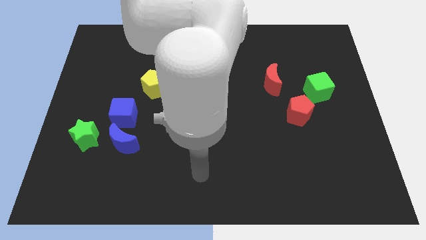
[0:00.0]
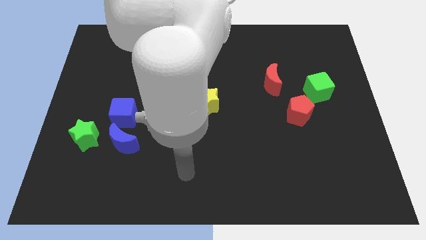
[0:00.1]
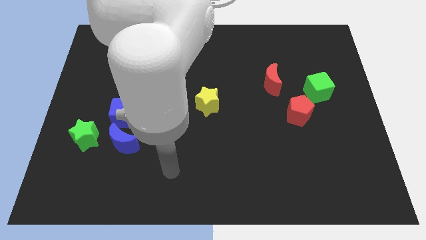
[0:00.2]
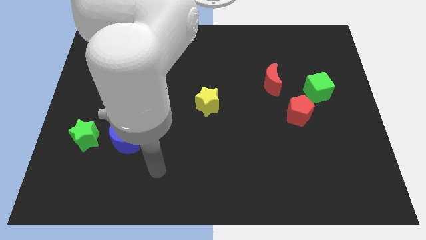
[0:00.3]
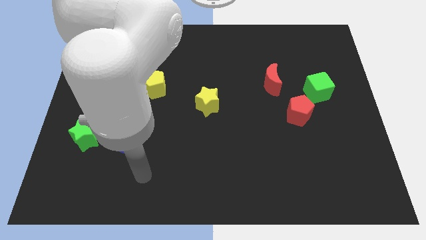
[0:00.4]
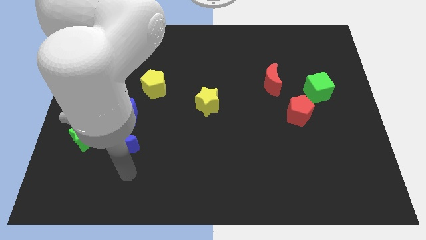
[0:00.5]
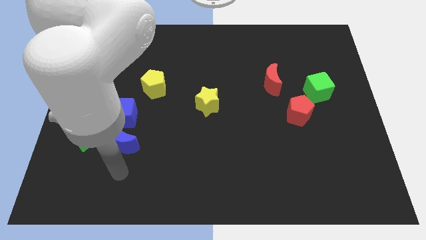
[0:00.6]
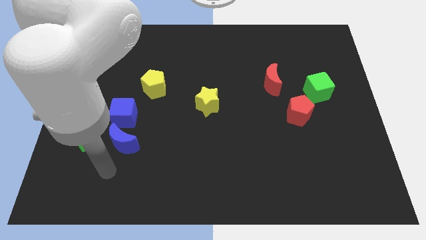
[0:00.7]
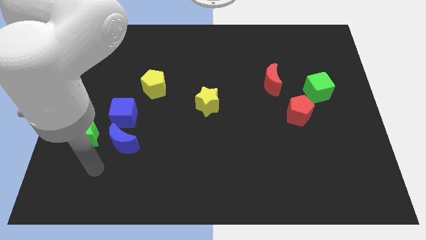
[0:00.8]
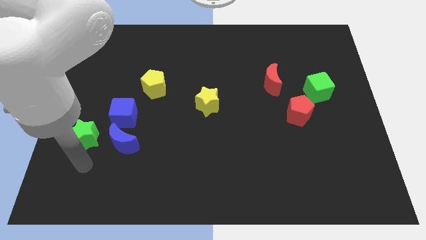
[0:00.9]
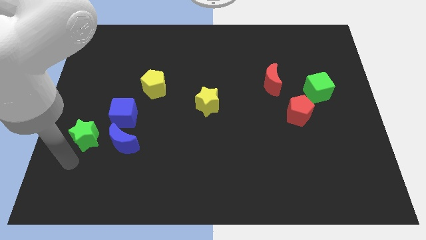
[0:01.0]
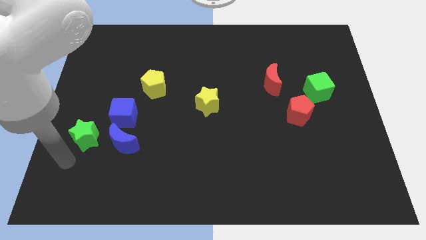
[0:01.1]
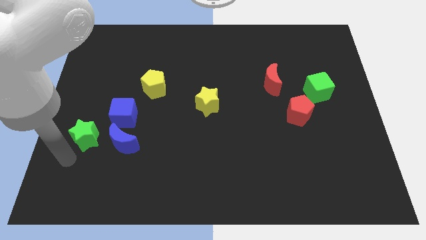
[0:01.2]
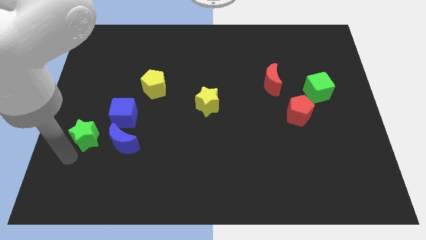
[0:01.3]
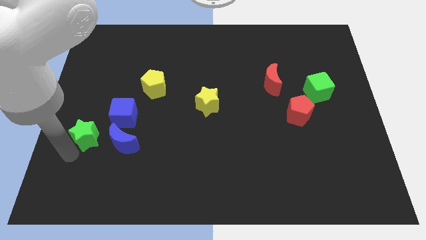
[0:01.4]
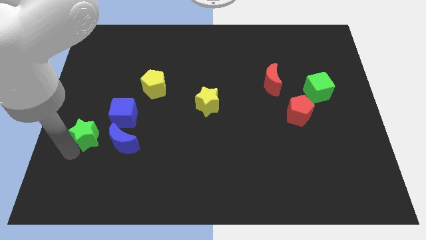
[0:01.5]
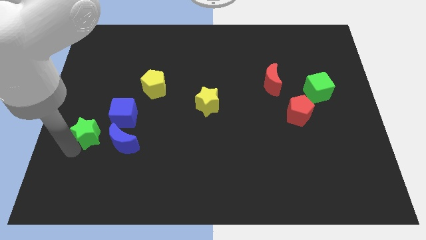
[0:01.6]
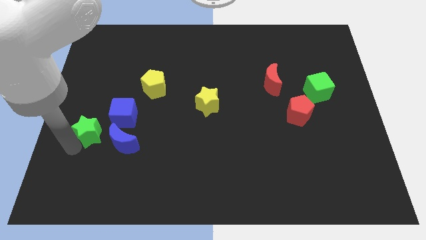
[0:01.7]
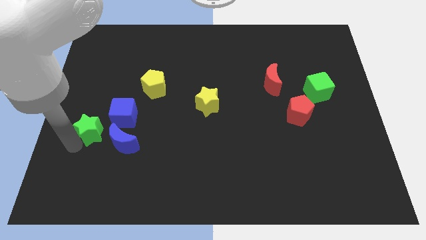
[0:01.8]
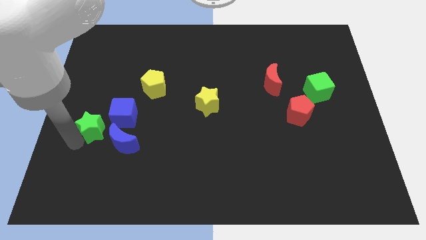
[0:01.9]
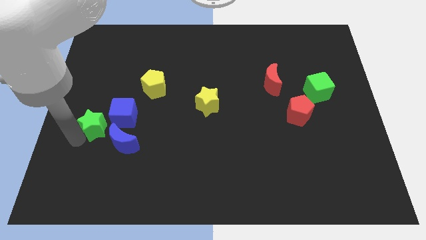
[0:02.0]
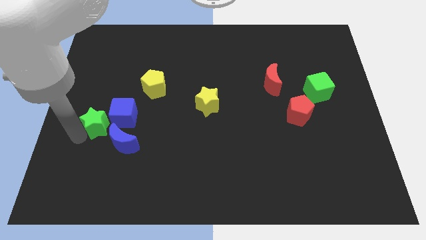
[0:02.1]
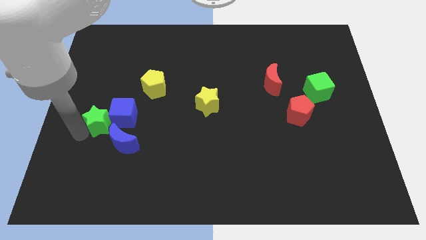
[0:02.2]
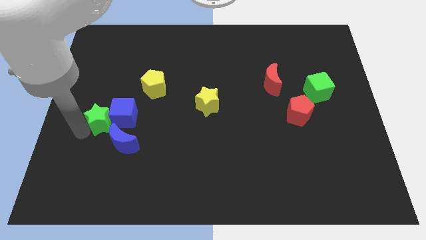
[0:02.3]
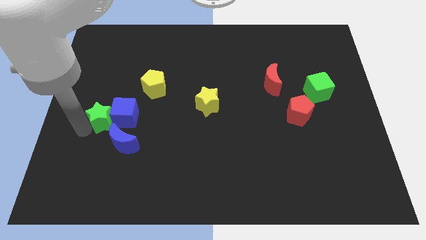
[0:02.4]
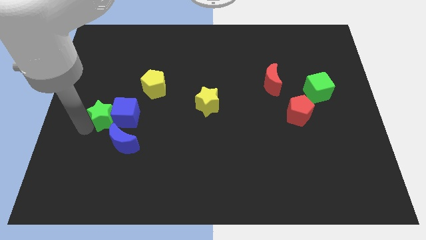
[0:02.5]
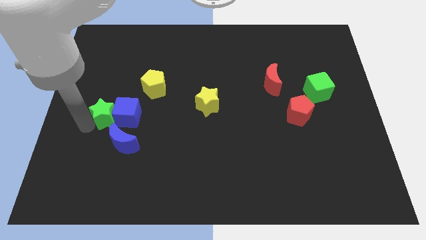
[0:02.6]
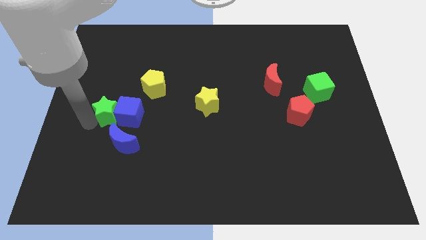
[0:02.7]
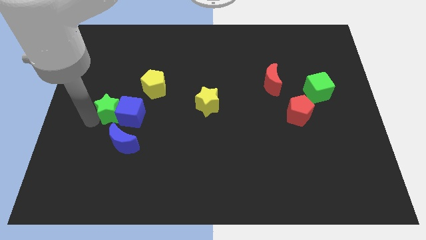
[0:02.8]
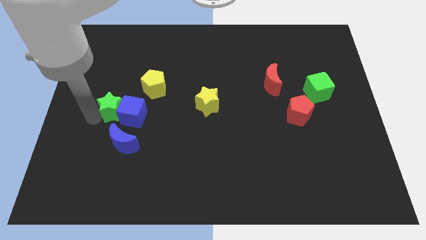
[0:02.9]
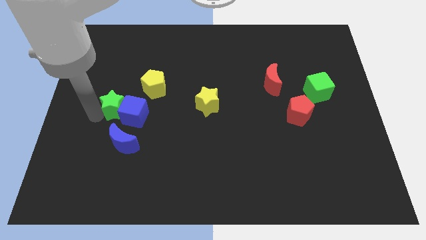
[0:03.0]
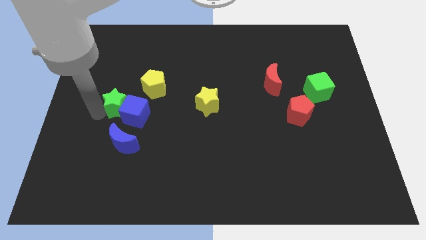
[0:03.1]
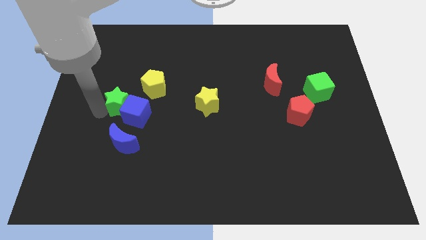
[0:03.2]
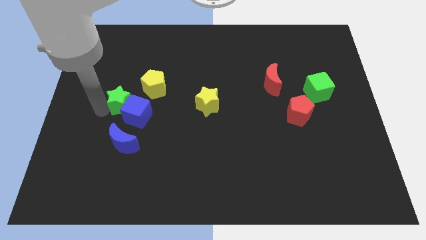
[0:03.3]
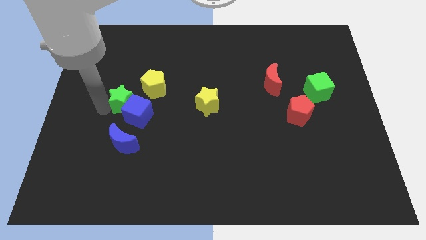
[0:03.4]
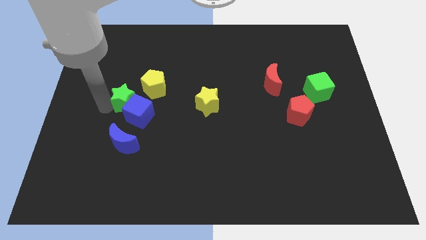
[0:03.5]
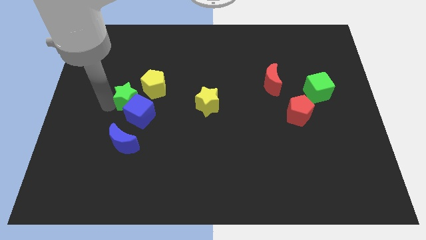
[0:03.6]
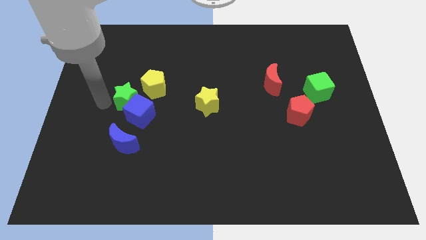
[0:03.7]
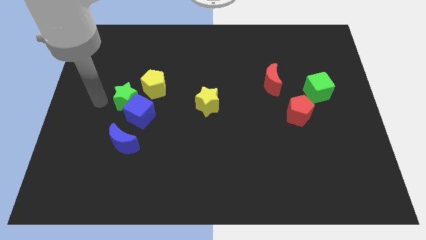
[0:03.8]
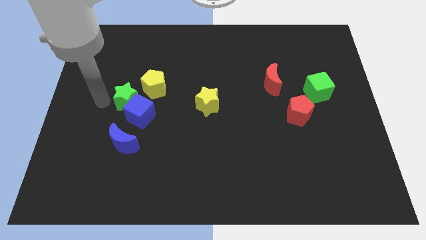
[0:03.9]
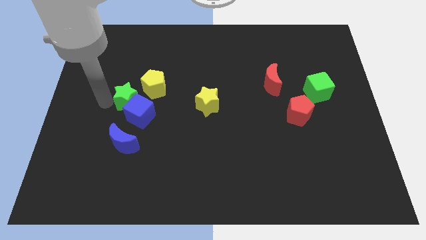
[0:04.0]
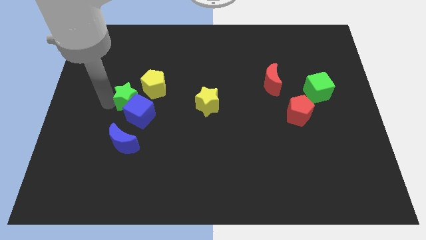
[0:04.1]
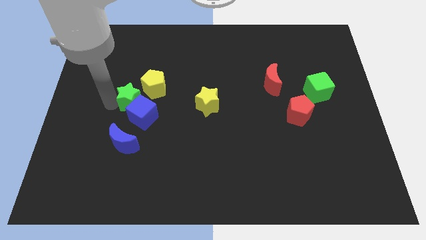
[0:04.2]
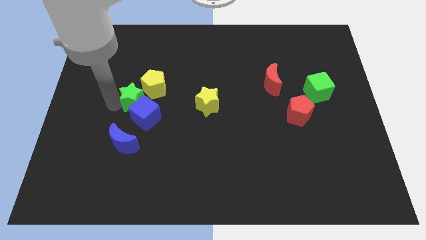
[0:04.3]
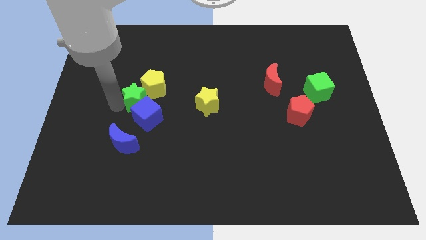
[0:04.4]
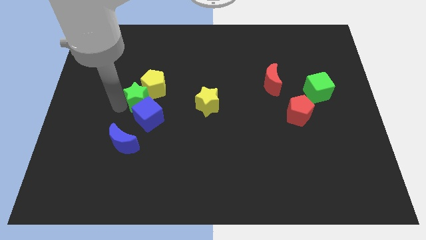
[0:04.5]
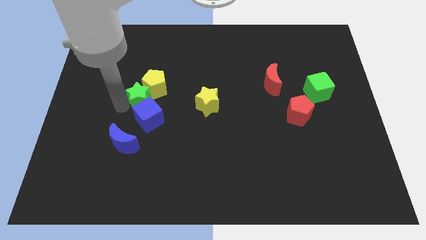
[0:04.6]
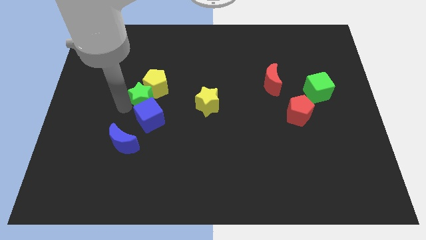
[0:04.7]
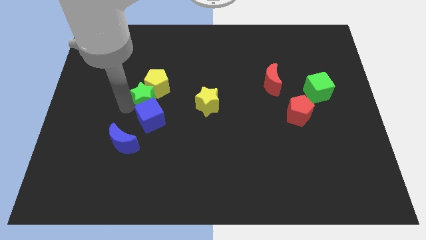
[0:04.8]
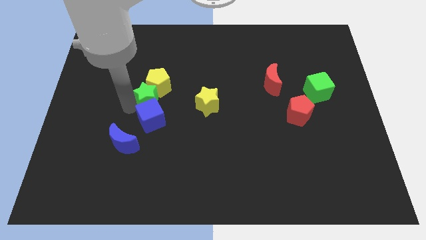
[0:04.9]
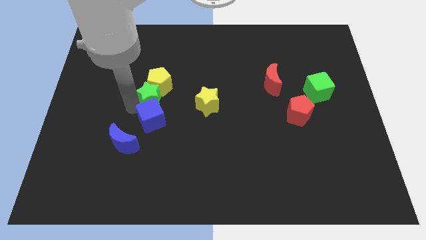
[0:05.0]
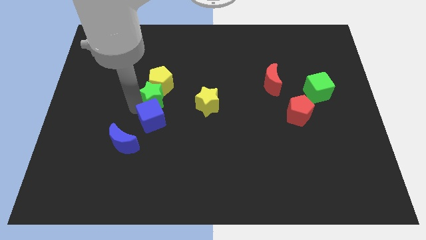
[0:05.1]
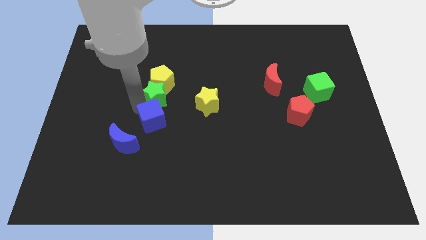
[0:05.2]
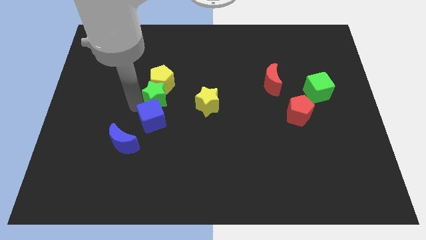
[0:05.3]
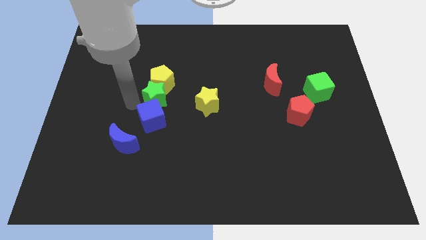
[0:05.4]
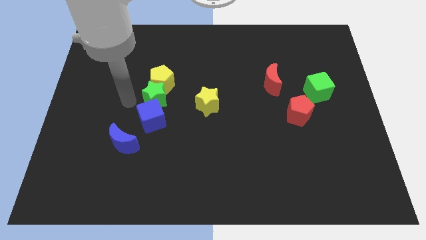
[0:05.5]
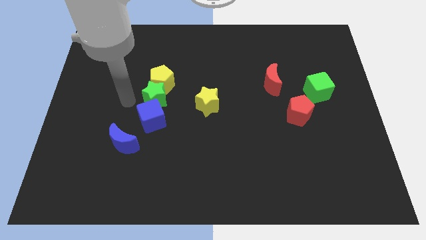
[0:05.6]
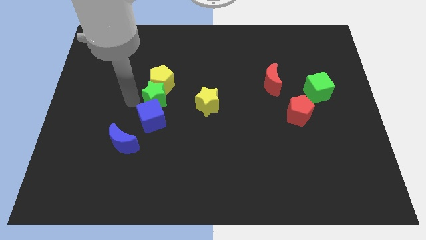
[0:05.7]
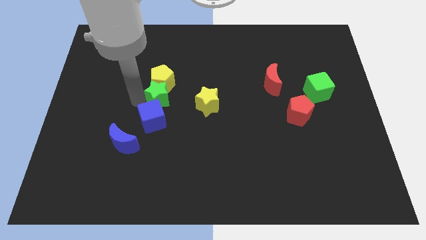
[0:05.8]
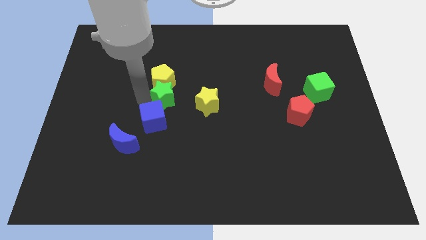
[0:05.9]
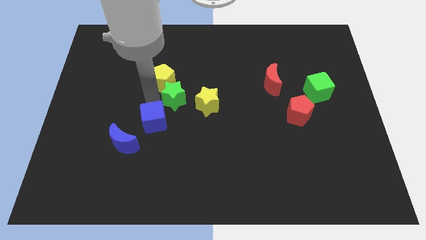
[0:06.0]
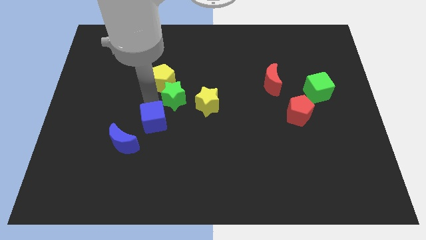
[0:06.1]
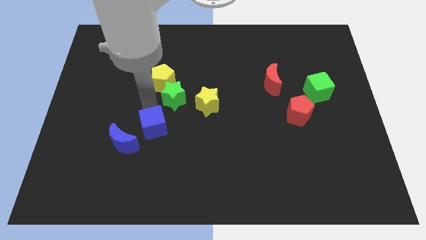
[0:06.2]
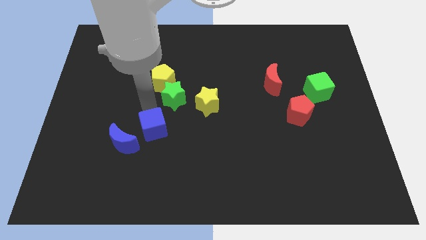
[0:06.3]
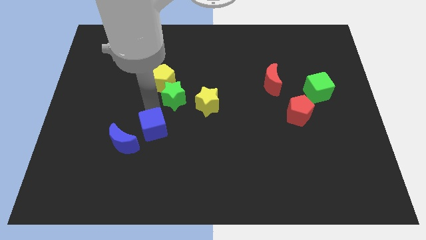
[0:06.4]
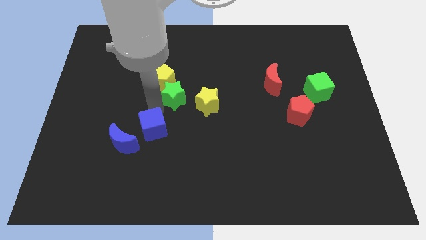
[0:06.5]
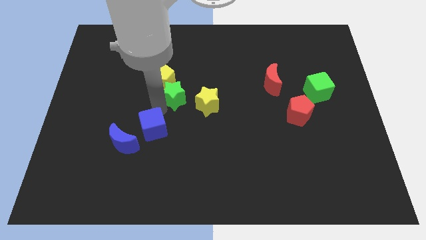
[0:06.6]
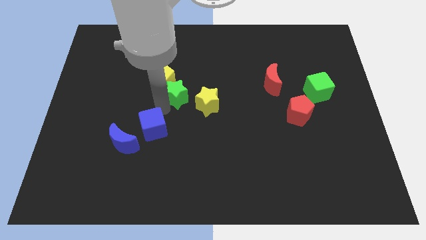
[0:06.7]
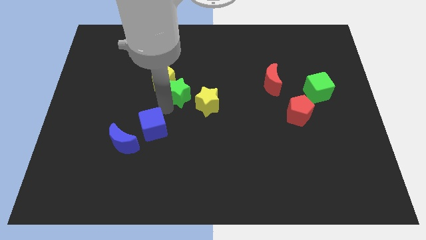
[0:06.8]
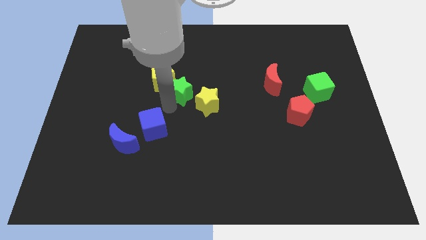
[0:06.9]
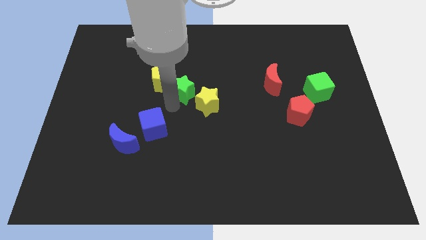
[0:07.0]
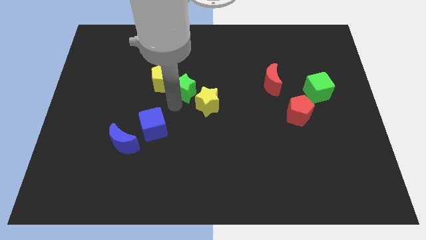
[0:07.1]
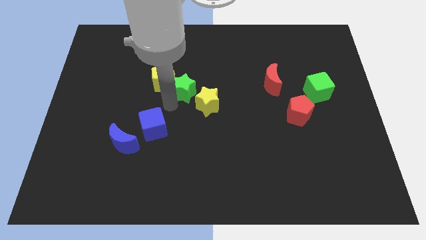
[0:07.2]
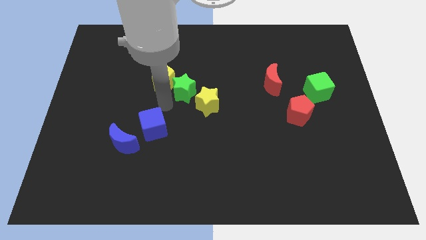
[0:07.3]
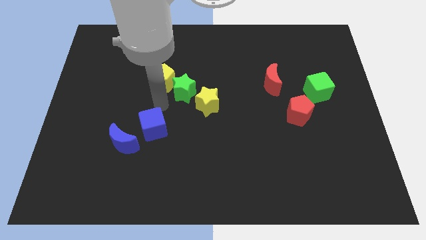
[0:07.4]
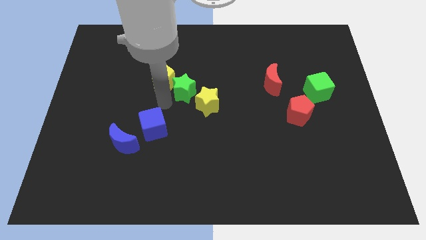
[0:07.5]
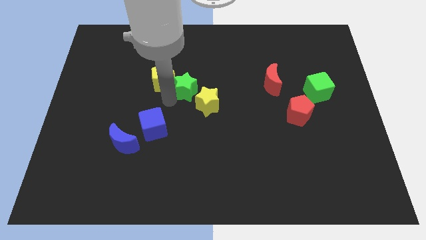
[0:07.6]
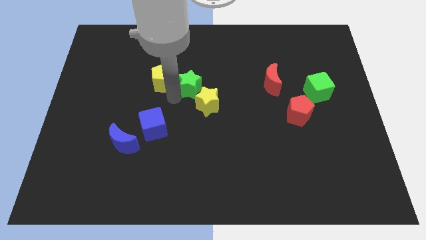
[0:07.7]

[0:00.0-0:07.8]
move the green star to the top side of the yellow star

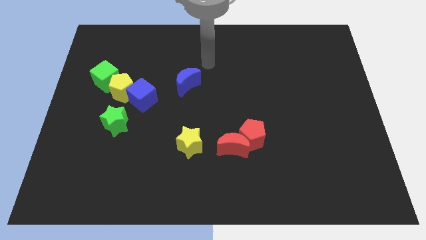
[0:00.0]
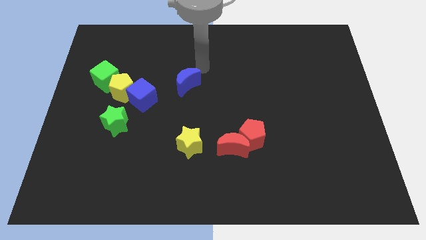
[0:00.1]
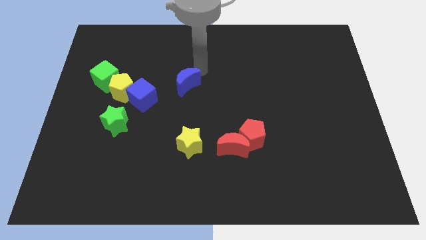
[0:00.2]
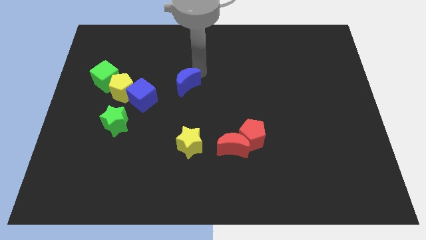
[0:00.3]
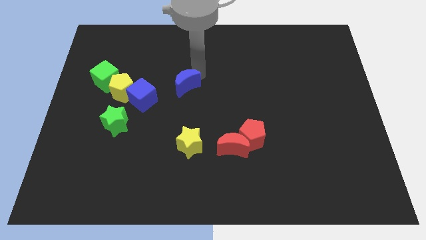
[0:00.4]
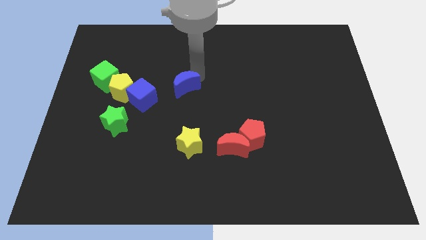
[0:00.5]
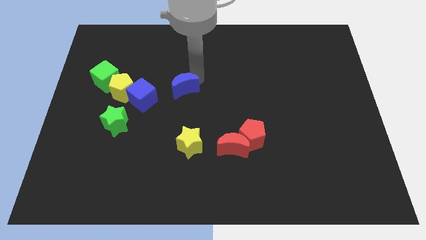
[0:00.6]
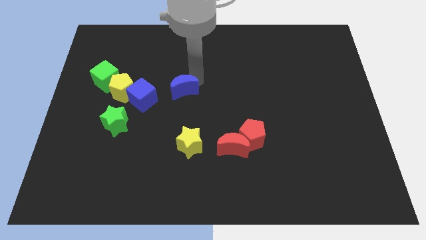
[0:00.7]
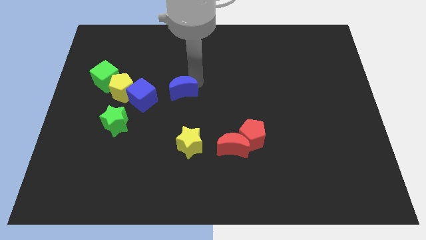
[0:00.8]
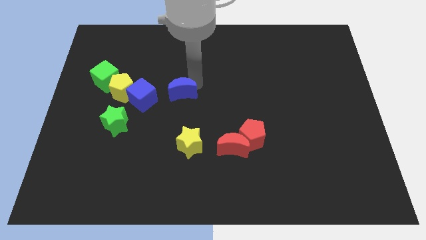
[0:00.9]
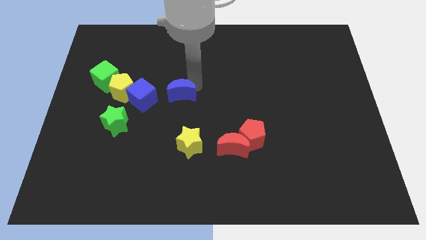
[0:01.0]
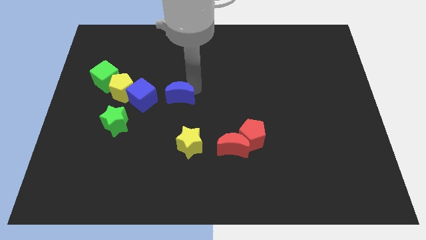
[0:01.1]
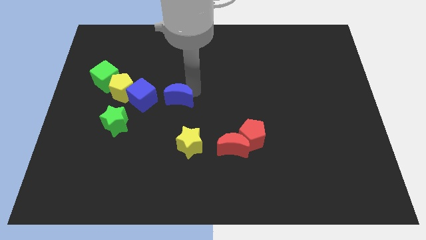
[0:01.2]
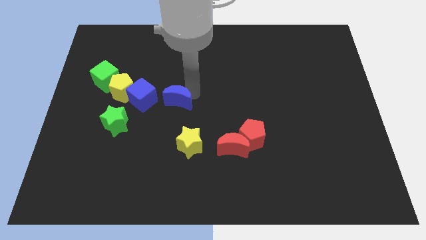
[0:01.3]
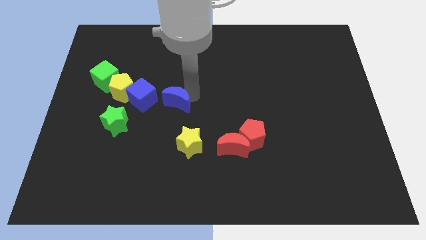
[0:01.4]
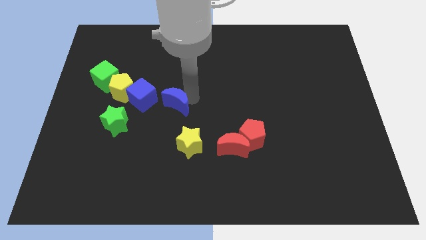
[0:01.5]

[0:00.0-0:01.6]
move the blue moon to the bottom right side of the blue cube
